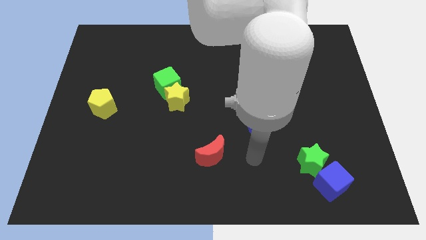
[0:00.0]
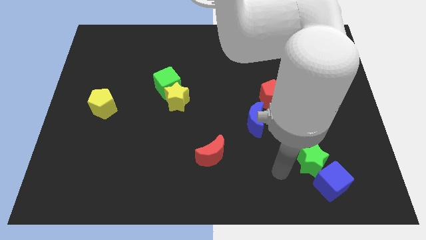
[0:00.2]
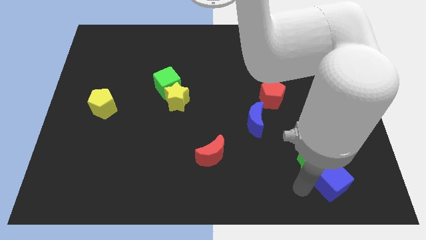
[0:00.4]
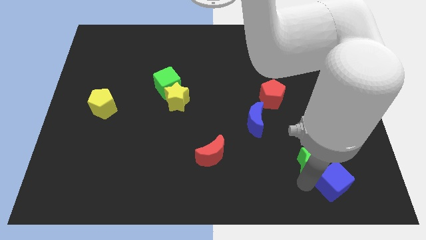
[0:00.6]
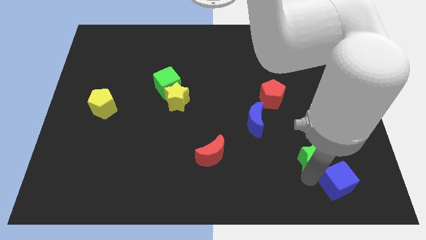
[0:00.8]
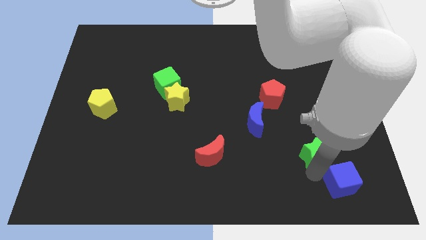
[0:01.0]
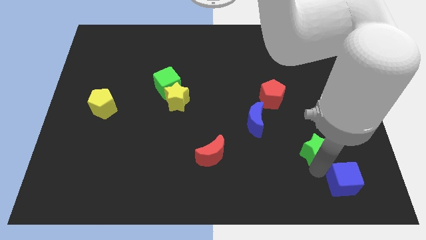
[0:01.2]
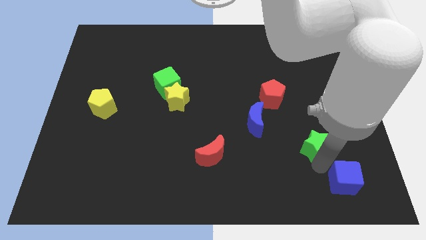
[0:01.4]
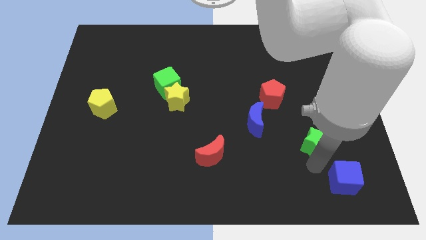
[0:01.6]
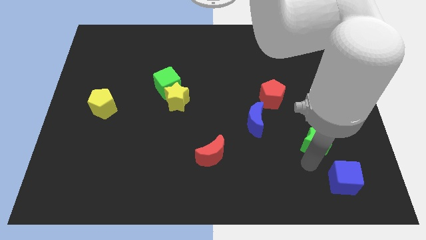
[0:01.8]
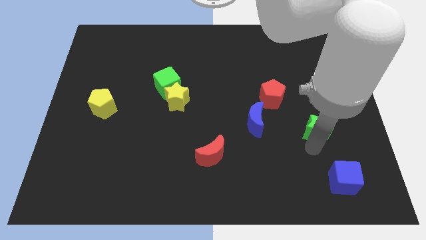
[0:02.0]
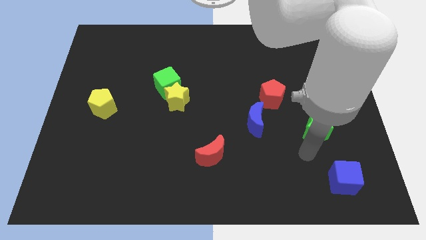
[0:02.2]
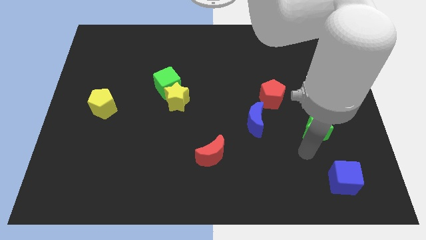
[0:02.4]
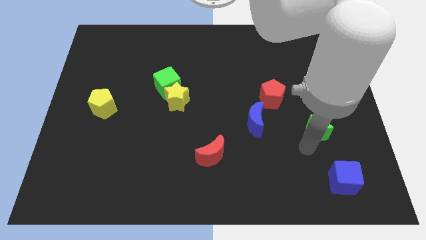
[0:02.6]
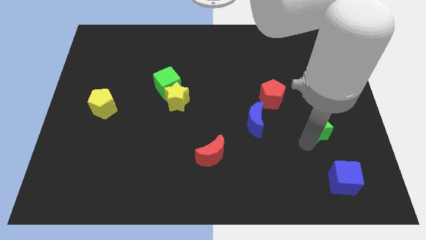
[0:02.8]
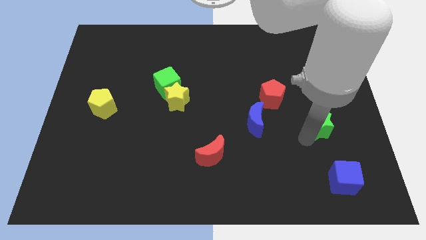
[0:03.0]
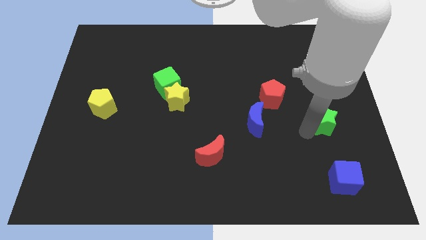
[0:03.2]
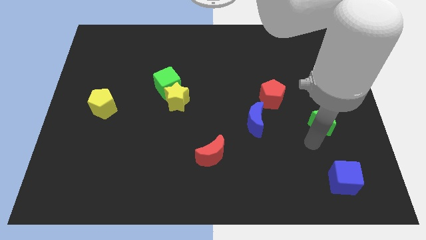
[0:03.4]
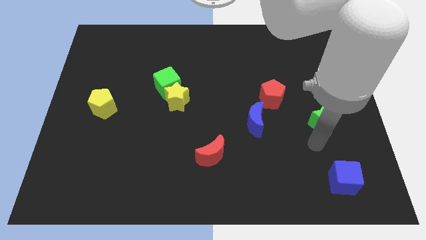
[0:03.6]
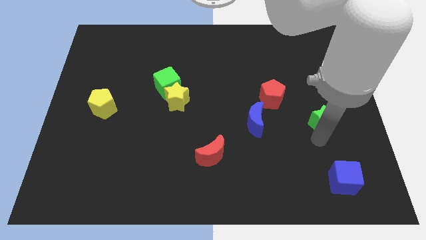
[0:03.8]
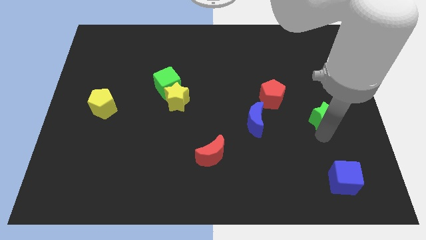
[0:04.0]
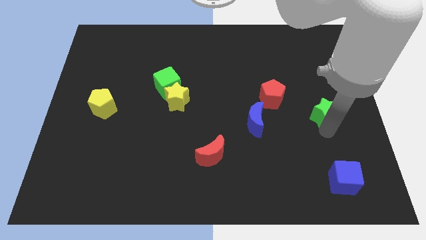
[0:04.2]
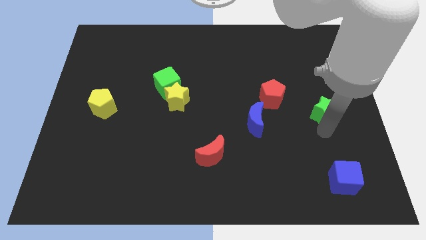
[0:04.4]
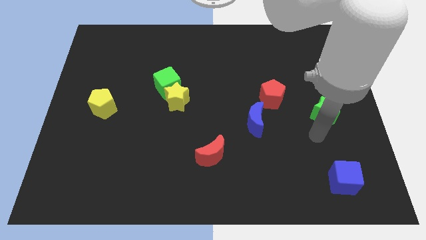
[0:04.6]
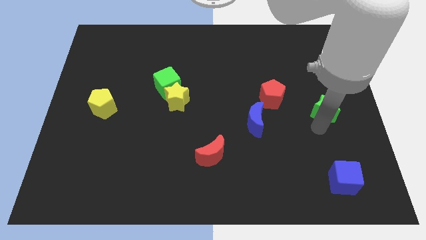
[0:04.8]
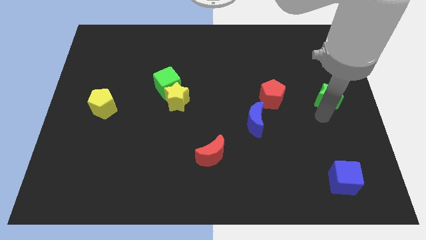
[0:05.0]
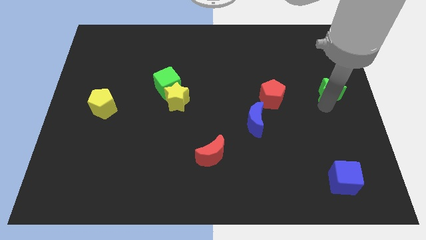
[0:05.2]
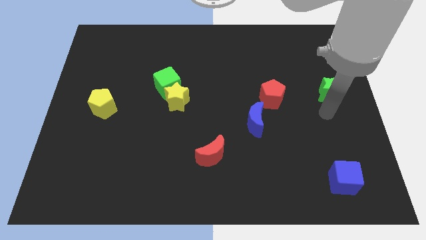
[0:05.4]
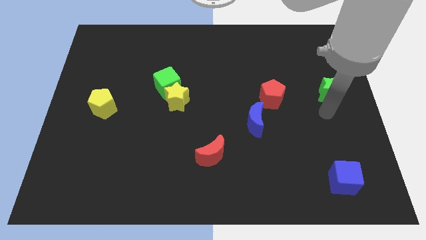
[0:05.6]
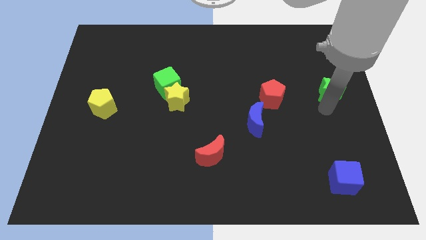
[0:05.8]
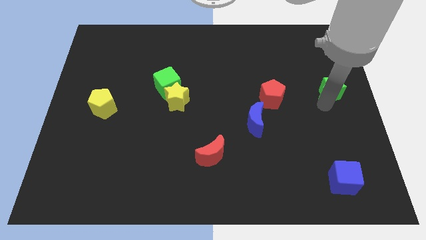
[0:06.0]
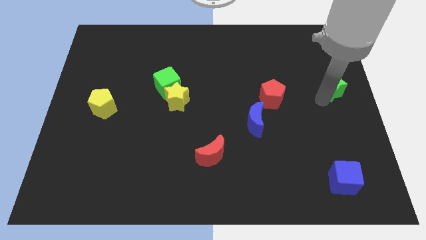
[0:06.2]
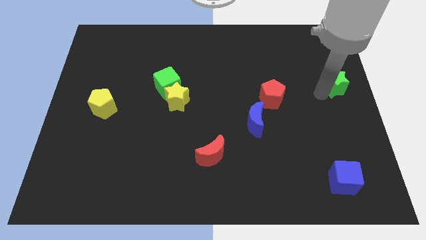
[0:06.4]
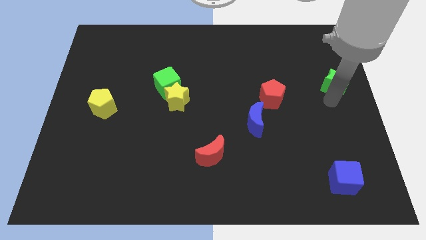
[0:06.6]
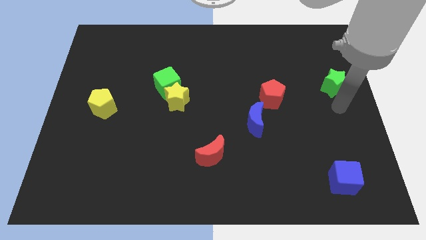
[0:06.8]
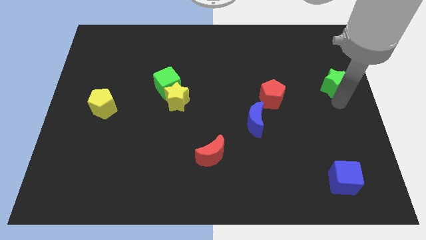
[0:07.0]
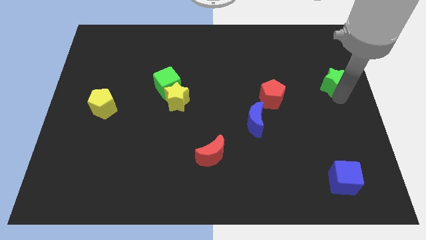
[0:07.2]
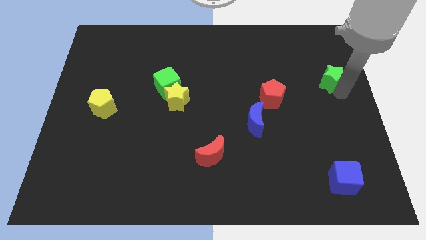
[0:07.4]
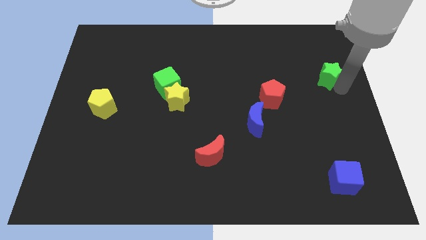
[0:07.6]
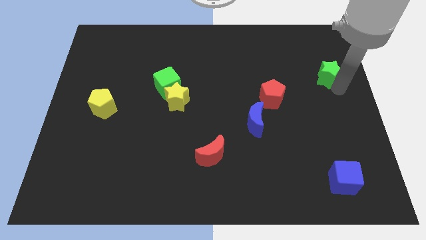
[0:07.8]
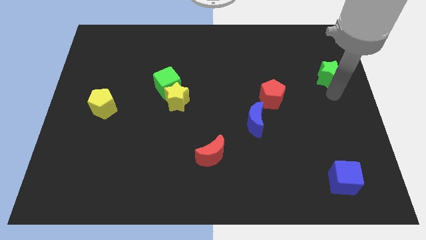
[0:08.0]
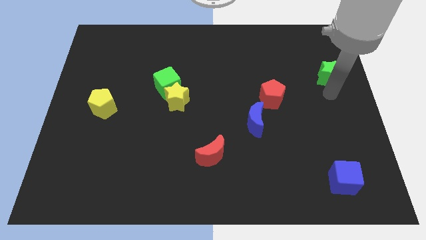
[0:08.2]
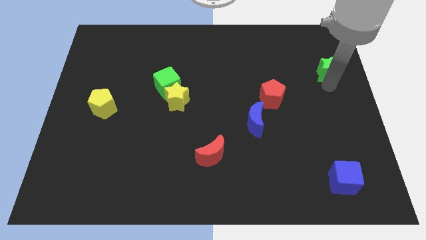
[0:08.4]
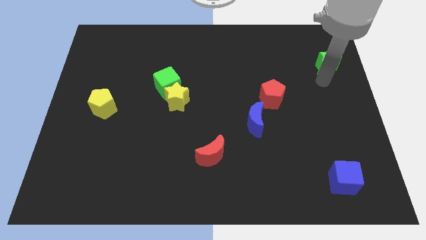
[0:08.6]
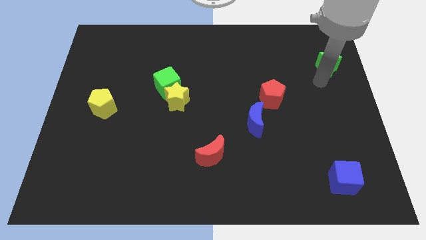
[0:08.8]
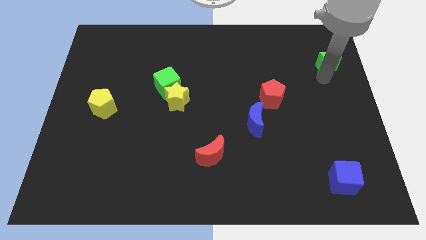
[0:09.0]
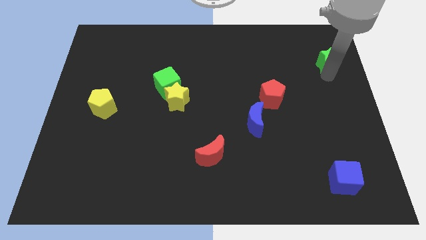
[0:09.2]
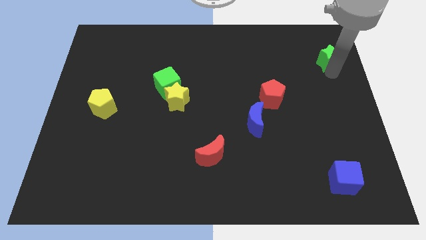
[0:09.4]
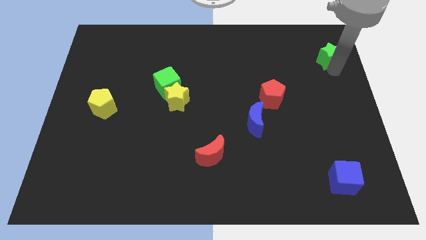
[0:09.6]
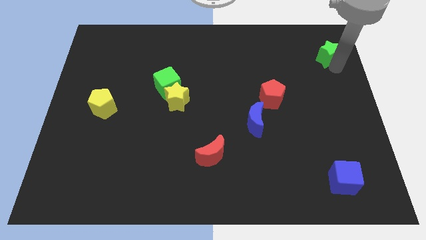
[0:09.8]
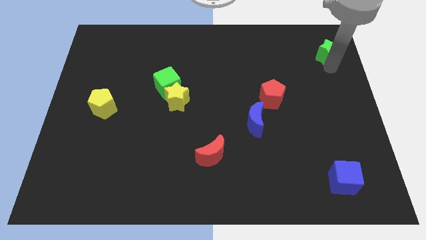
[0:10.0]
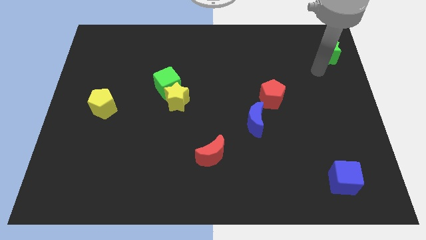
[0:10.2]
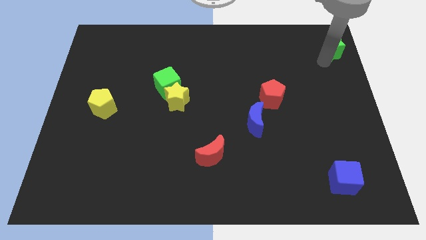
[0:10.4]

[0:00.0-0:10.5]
move the green star to the top right
